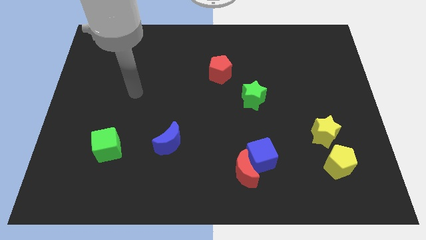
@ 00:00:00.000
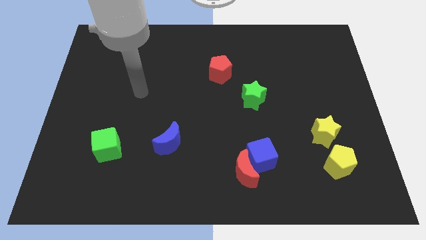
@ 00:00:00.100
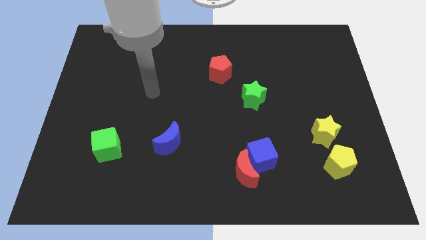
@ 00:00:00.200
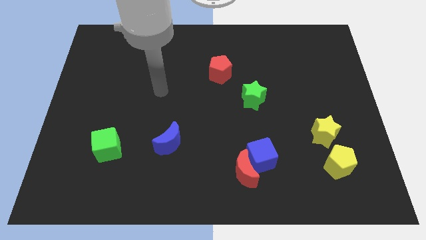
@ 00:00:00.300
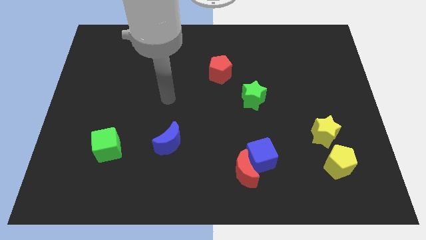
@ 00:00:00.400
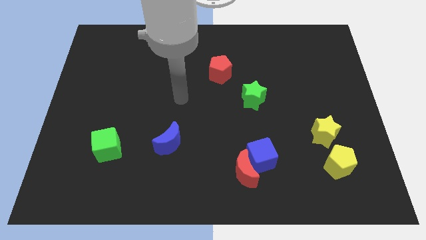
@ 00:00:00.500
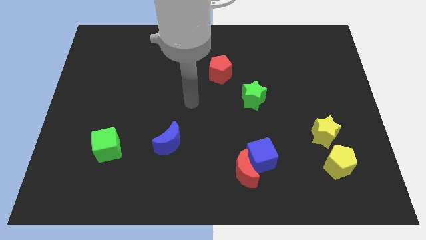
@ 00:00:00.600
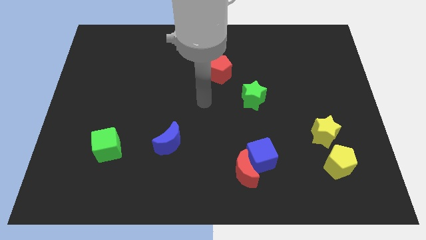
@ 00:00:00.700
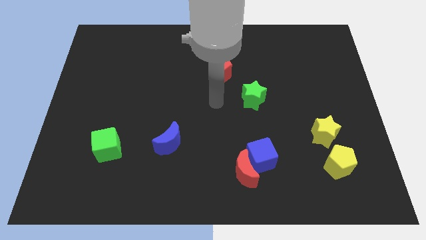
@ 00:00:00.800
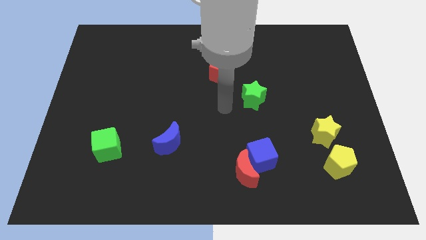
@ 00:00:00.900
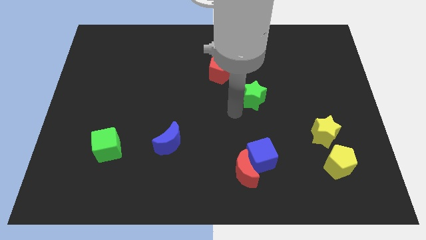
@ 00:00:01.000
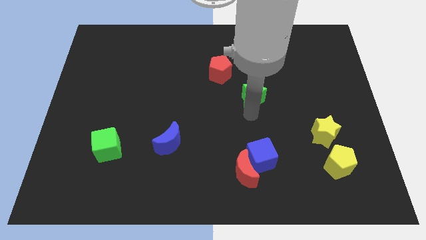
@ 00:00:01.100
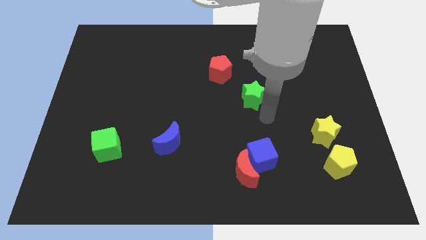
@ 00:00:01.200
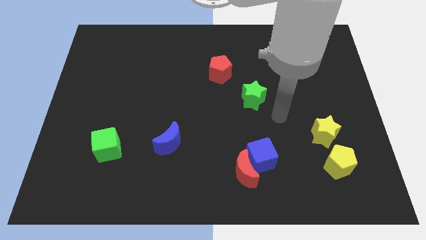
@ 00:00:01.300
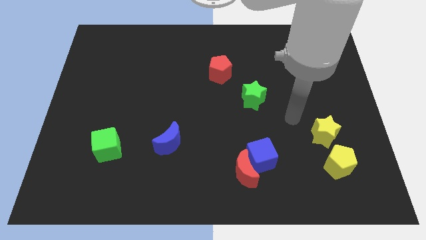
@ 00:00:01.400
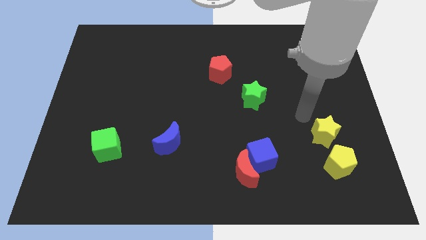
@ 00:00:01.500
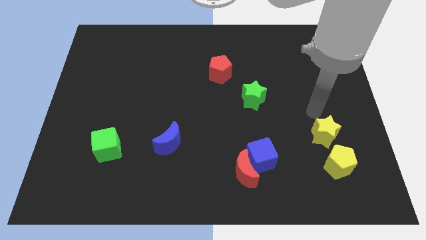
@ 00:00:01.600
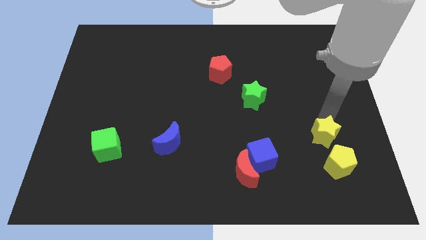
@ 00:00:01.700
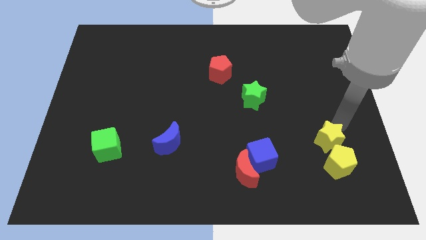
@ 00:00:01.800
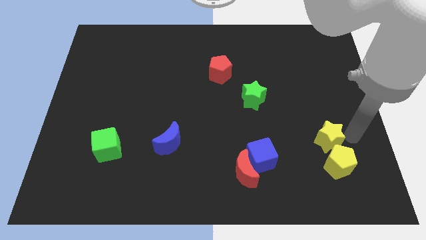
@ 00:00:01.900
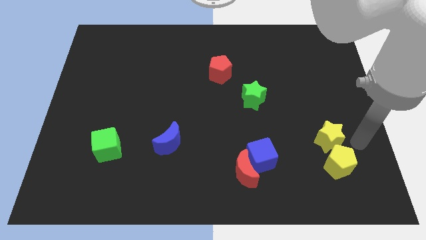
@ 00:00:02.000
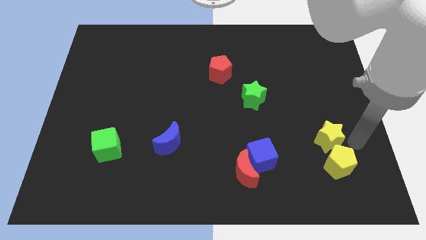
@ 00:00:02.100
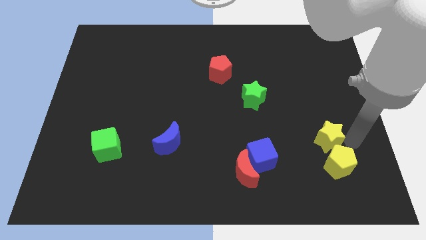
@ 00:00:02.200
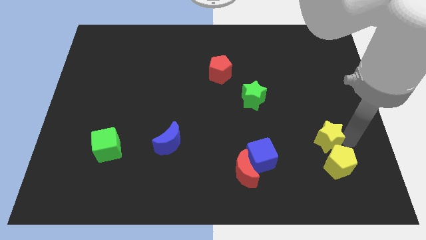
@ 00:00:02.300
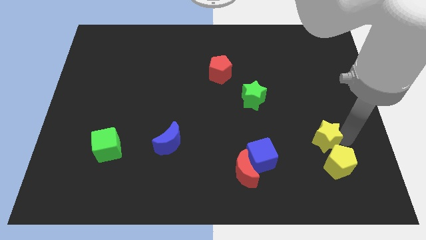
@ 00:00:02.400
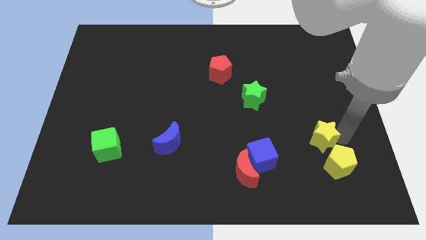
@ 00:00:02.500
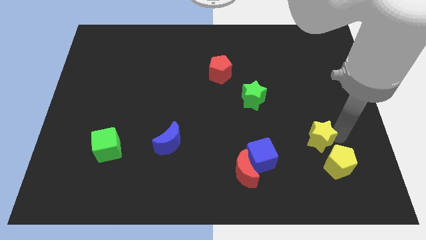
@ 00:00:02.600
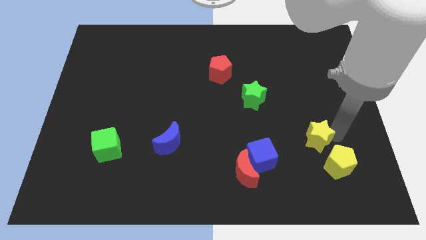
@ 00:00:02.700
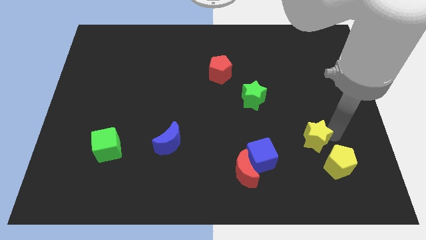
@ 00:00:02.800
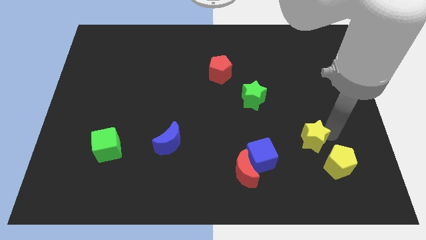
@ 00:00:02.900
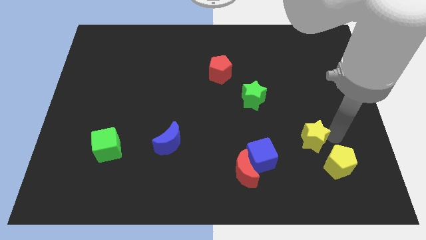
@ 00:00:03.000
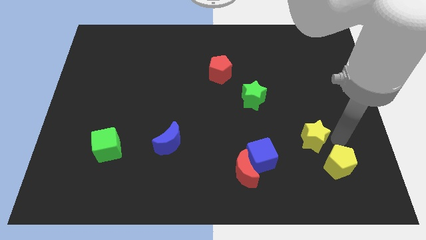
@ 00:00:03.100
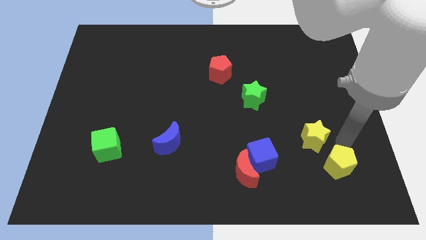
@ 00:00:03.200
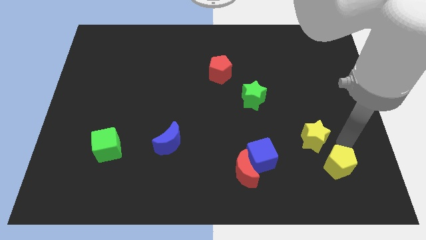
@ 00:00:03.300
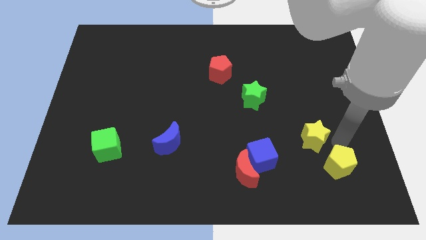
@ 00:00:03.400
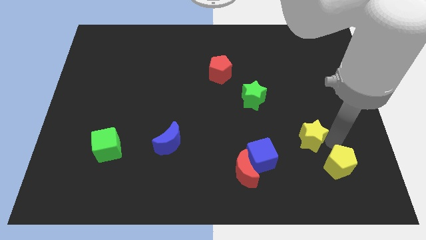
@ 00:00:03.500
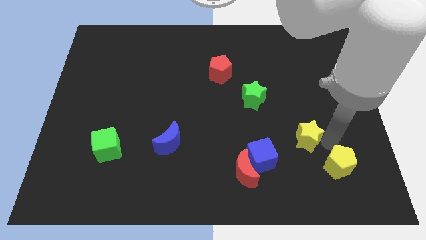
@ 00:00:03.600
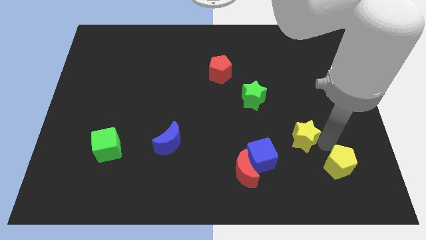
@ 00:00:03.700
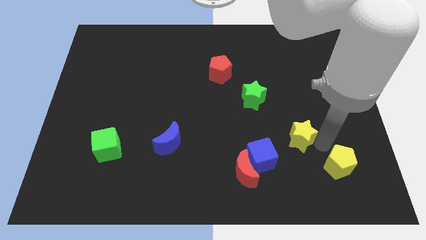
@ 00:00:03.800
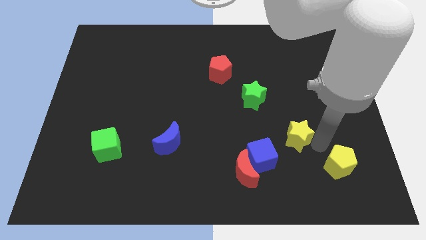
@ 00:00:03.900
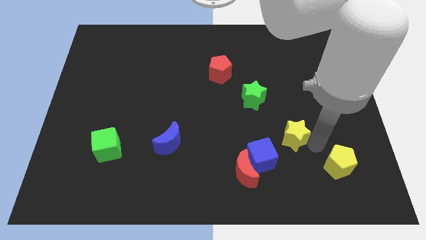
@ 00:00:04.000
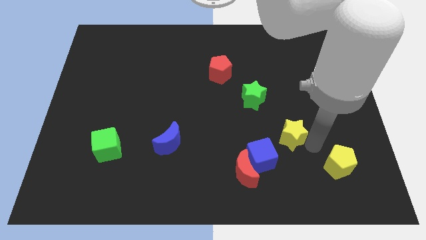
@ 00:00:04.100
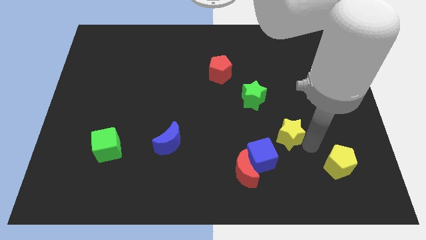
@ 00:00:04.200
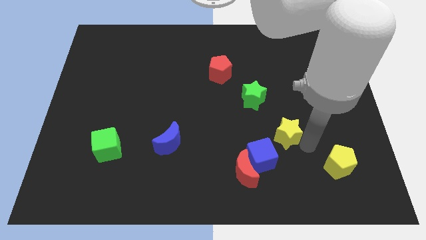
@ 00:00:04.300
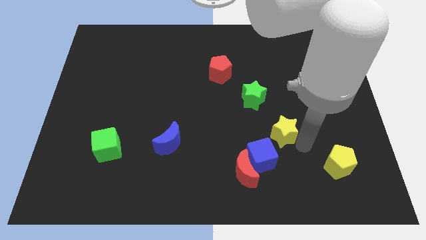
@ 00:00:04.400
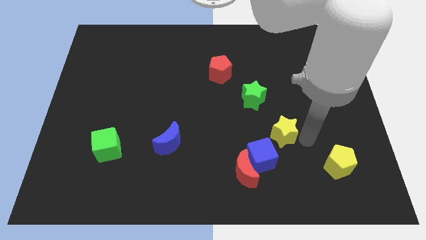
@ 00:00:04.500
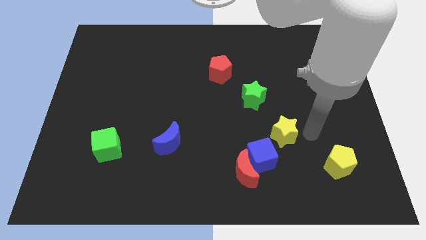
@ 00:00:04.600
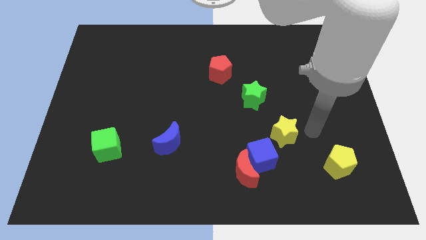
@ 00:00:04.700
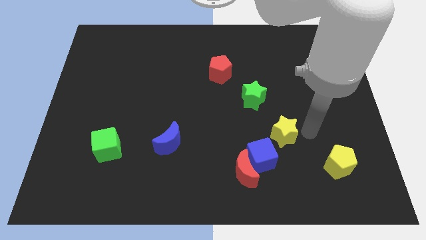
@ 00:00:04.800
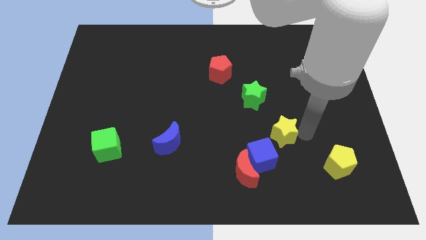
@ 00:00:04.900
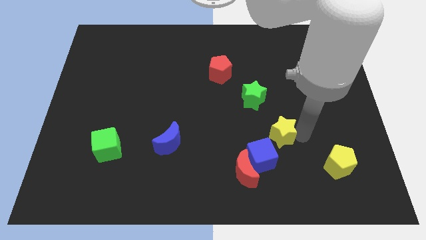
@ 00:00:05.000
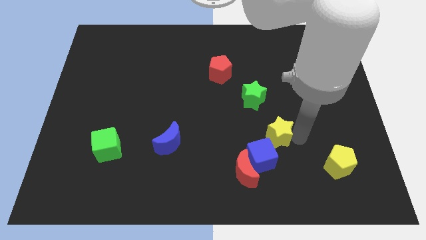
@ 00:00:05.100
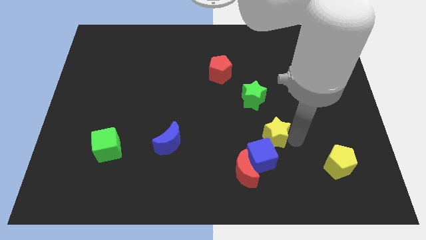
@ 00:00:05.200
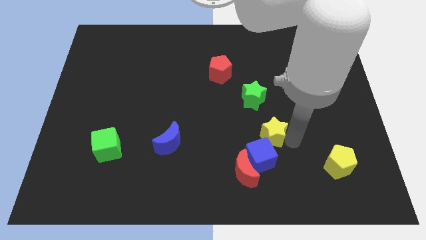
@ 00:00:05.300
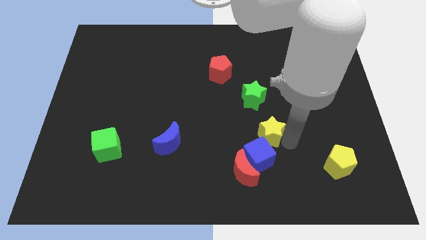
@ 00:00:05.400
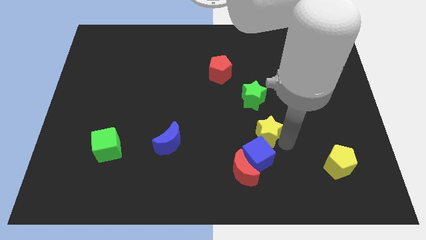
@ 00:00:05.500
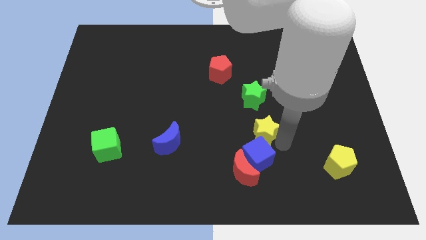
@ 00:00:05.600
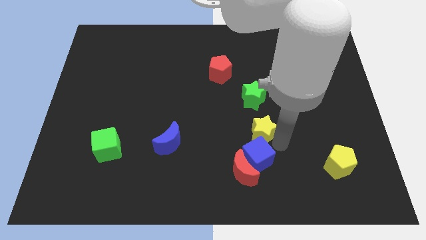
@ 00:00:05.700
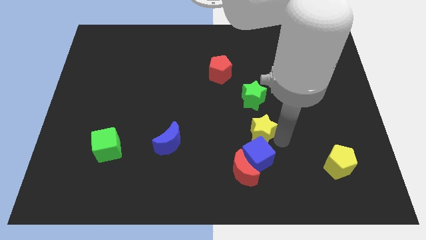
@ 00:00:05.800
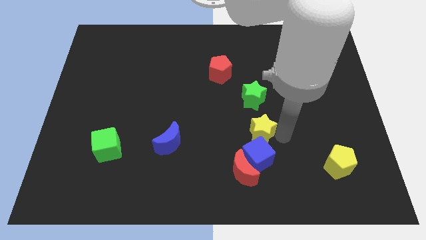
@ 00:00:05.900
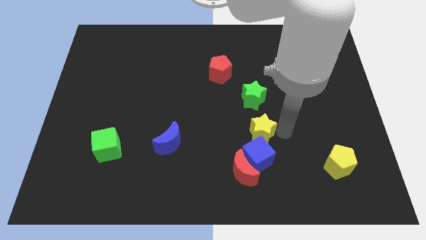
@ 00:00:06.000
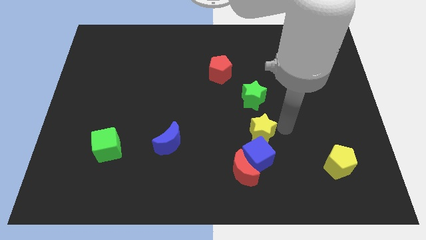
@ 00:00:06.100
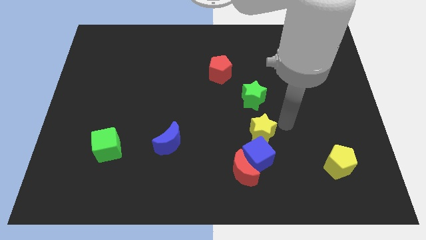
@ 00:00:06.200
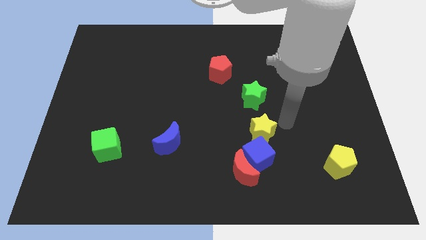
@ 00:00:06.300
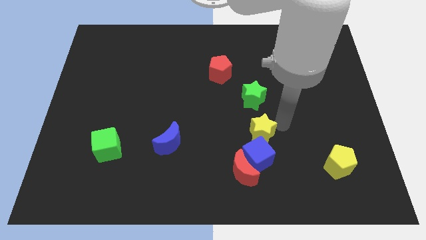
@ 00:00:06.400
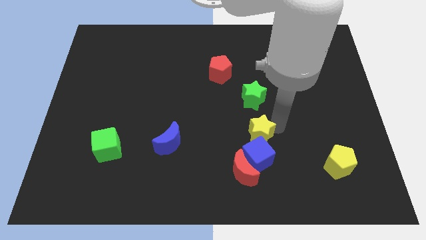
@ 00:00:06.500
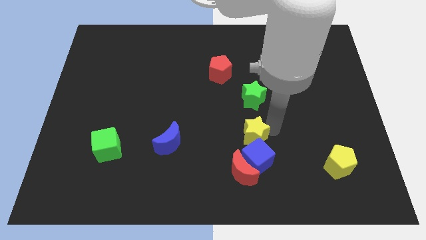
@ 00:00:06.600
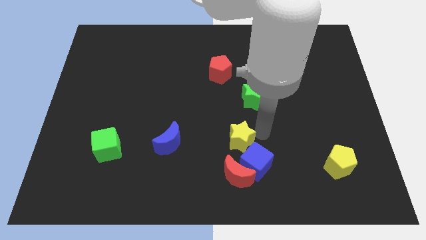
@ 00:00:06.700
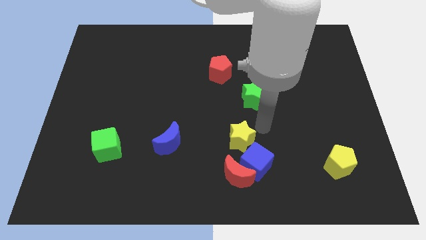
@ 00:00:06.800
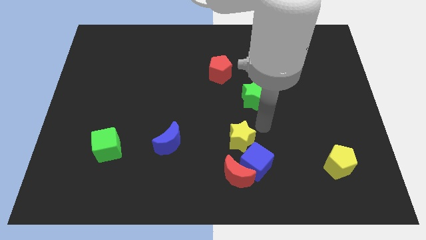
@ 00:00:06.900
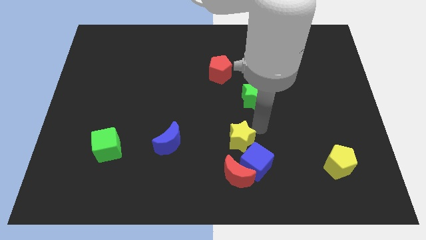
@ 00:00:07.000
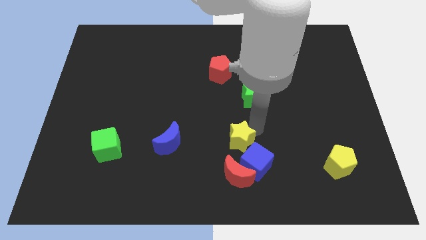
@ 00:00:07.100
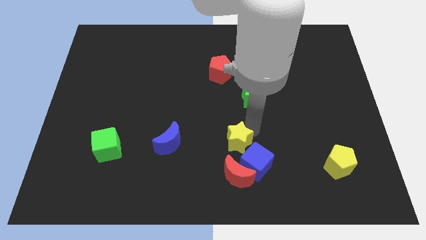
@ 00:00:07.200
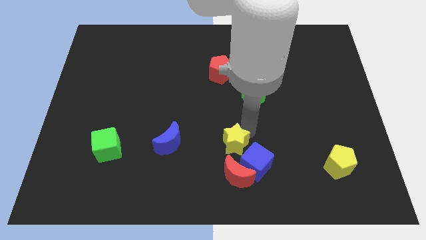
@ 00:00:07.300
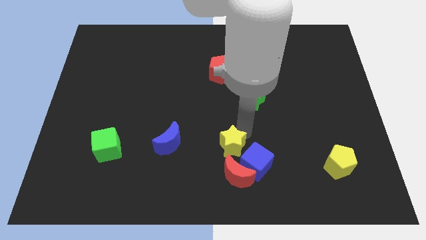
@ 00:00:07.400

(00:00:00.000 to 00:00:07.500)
put the yellow star to the left side of the blue cube
